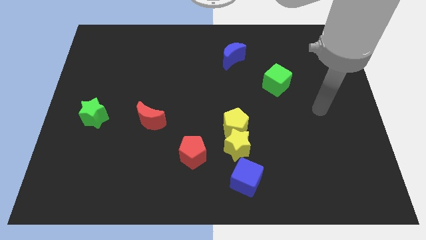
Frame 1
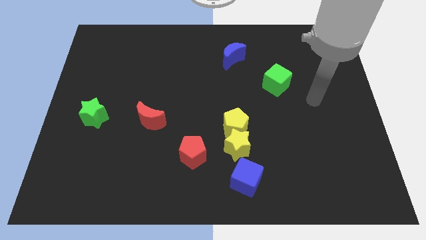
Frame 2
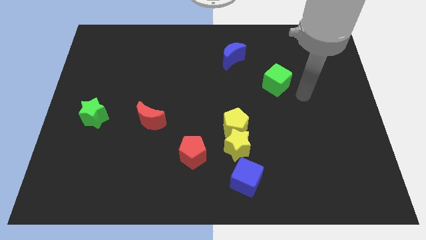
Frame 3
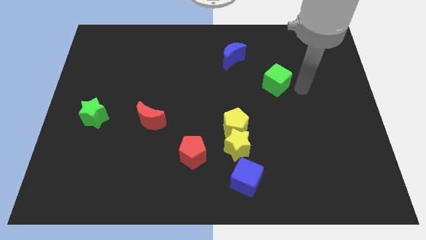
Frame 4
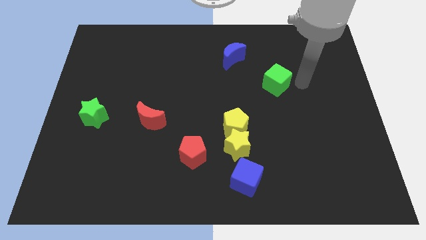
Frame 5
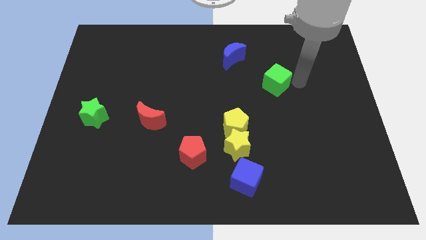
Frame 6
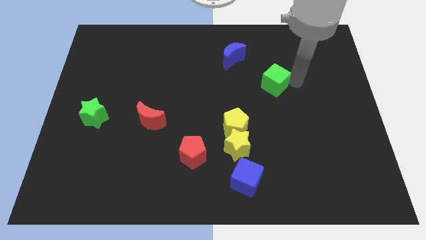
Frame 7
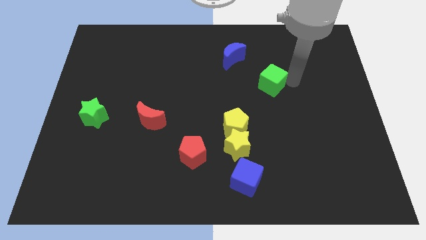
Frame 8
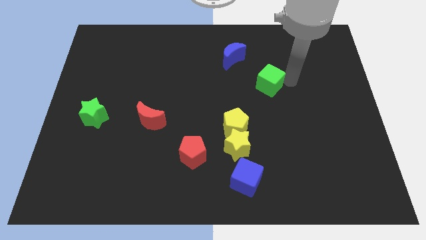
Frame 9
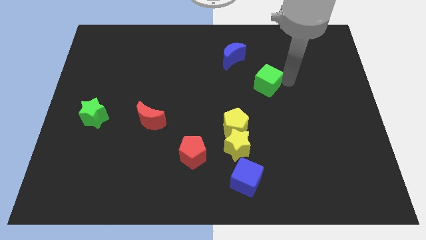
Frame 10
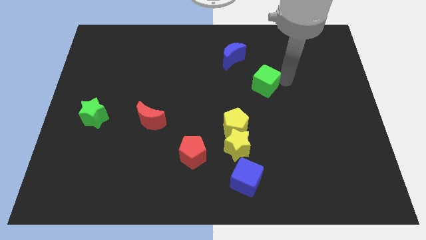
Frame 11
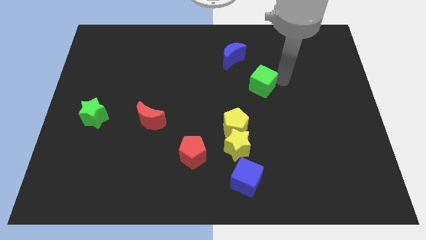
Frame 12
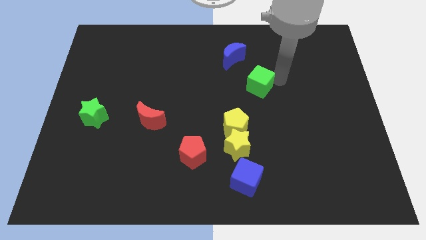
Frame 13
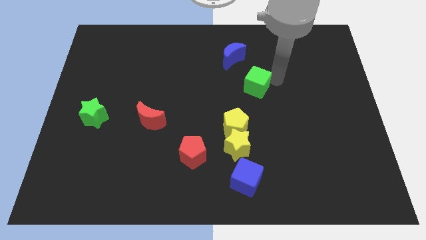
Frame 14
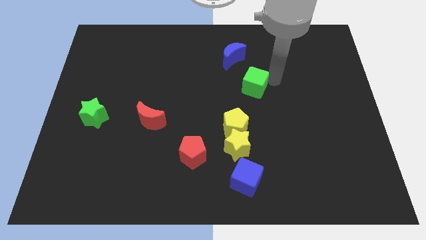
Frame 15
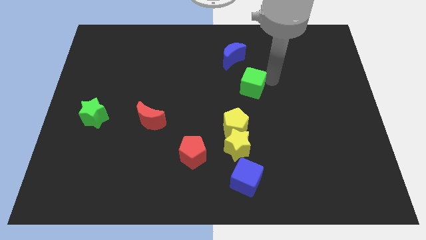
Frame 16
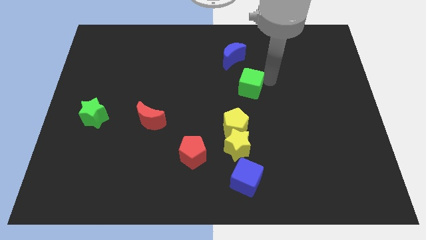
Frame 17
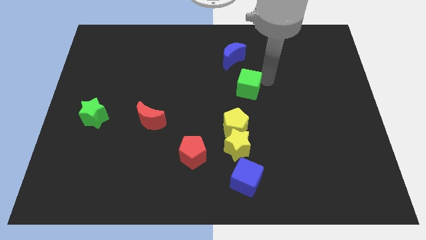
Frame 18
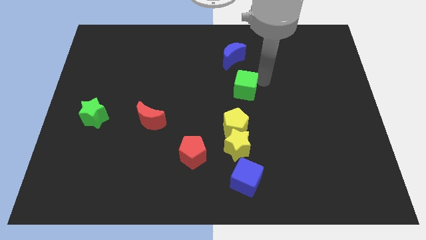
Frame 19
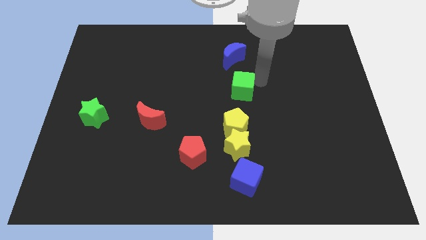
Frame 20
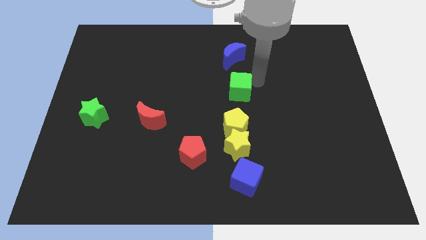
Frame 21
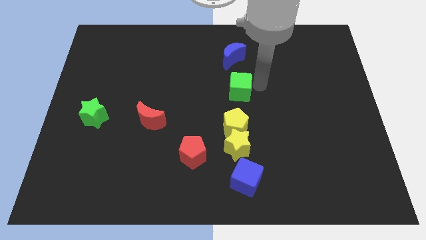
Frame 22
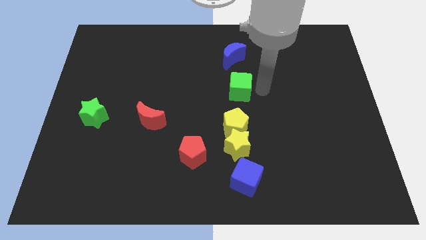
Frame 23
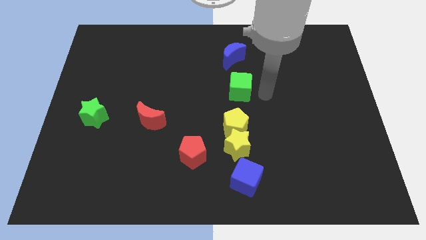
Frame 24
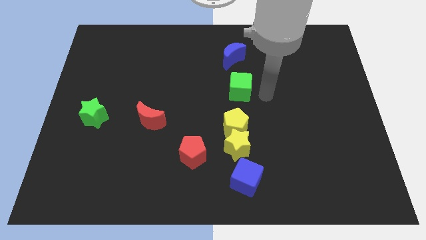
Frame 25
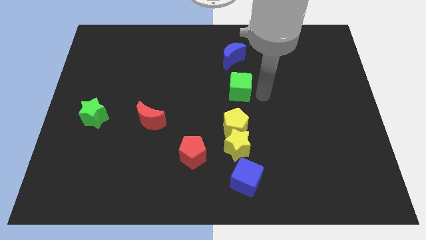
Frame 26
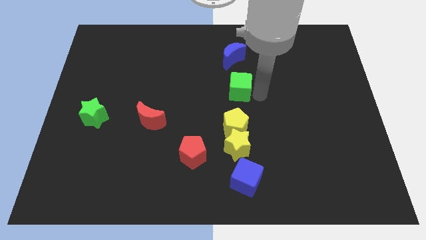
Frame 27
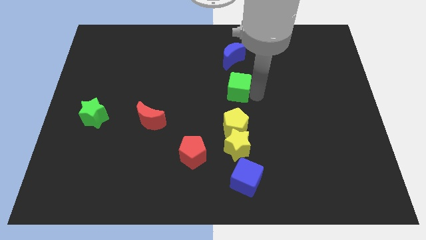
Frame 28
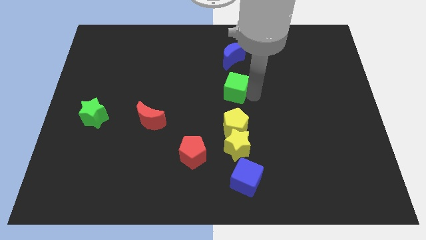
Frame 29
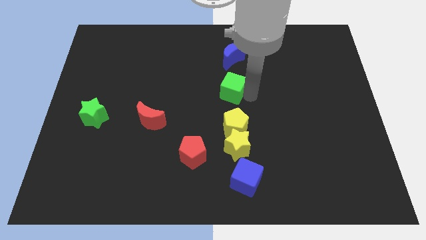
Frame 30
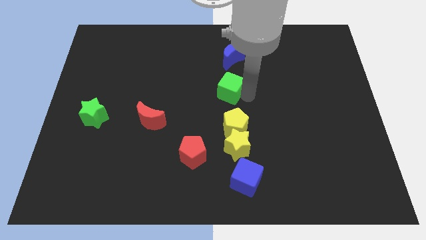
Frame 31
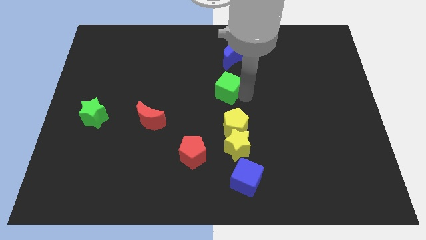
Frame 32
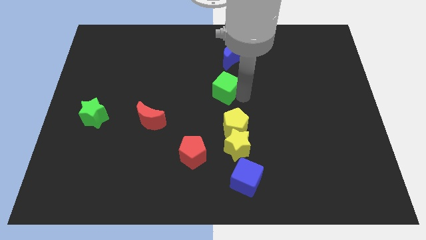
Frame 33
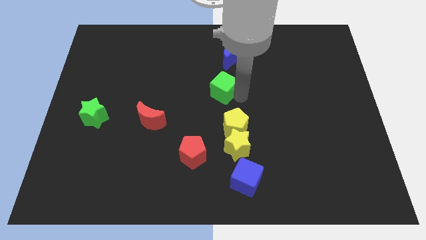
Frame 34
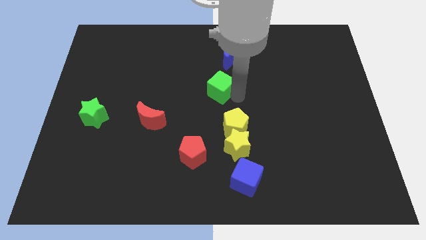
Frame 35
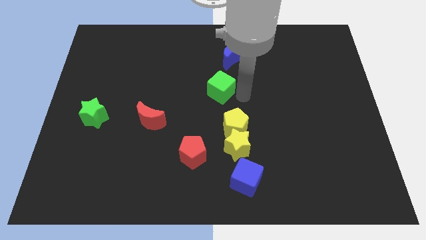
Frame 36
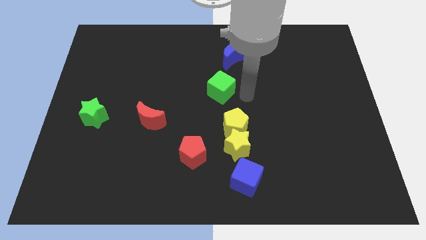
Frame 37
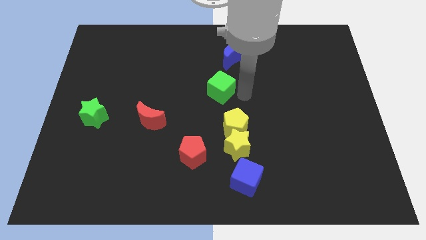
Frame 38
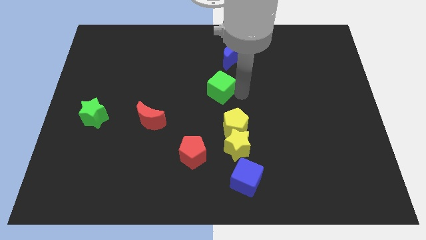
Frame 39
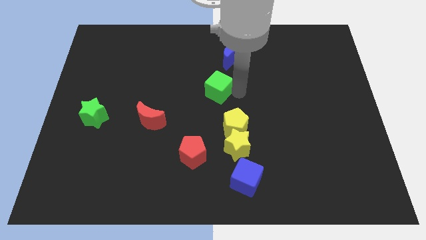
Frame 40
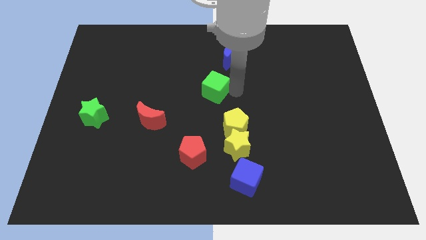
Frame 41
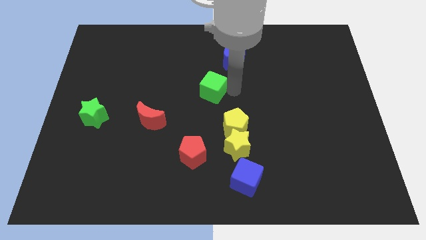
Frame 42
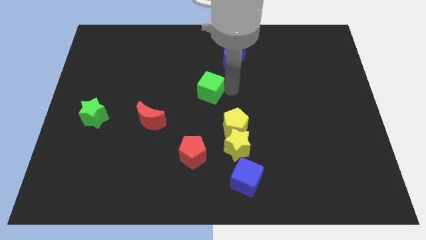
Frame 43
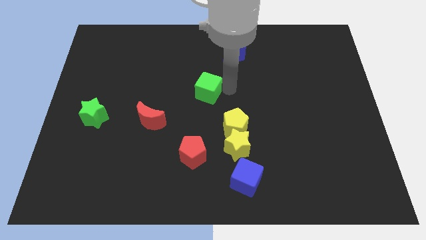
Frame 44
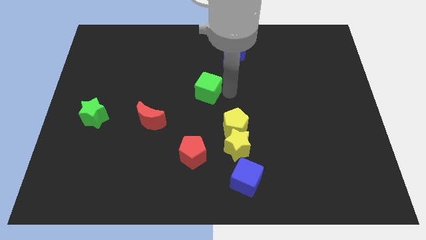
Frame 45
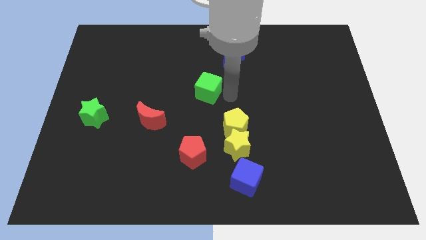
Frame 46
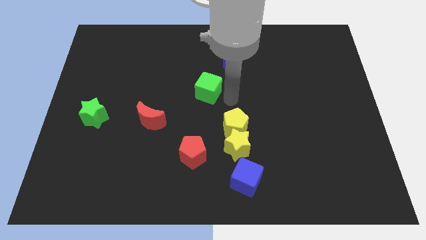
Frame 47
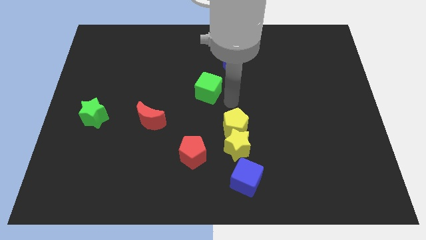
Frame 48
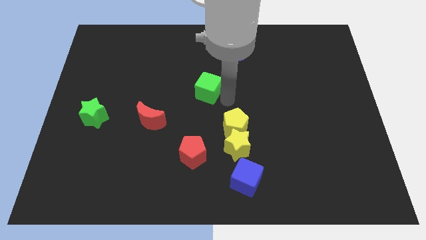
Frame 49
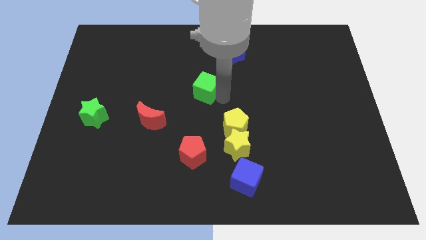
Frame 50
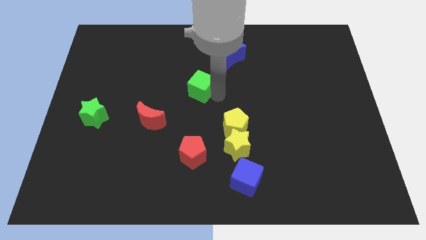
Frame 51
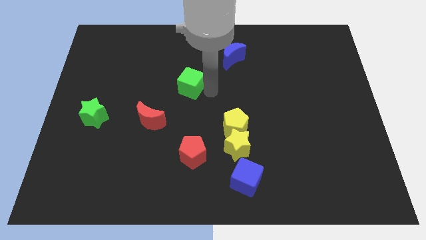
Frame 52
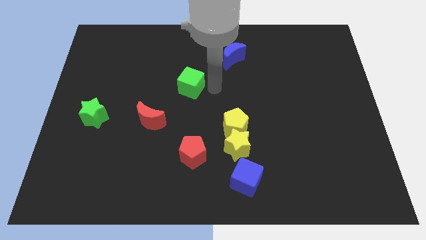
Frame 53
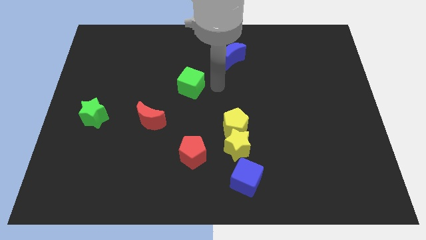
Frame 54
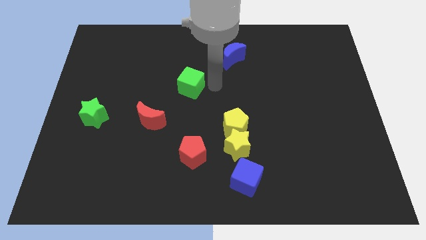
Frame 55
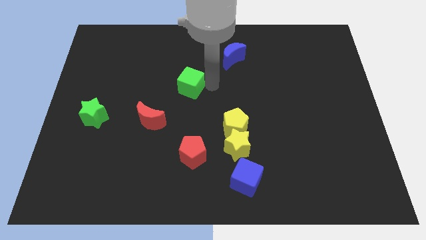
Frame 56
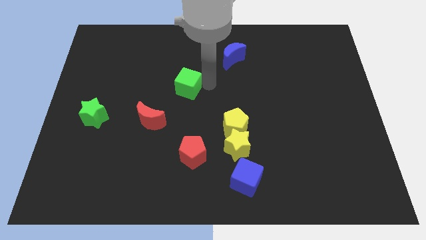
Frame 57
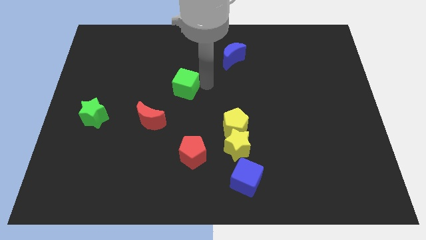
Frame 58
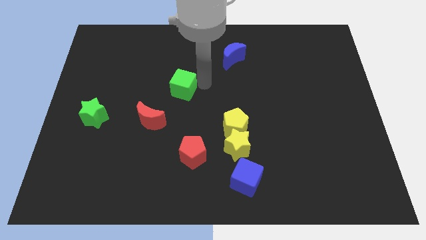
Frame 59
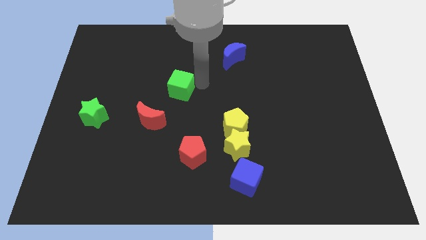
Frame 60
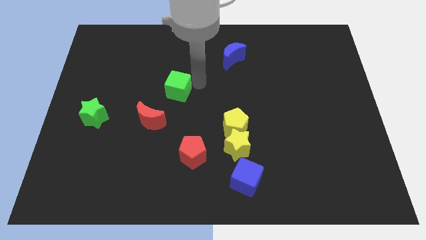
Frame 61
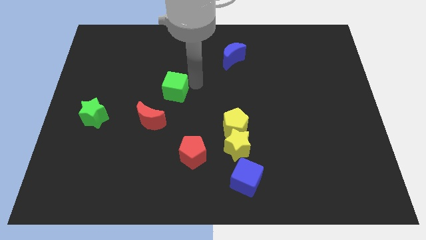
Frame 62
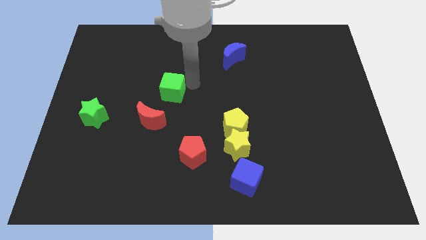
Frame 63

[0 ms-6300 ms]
push the green cube above the red moon
